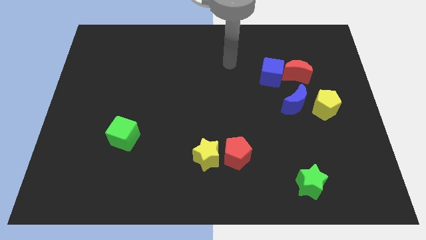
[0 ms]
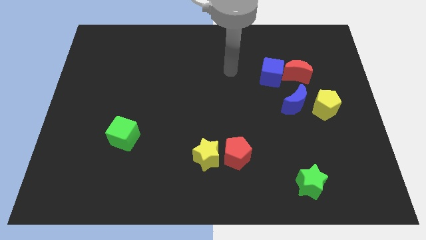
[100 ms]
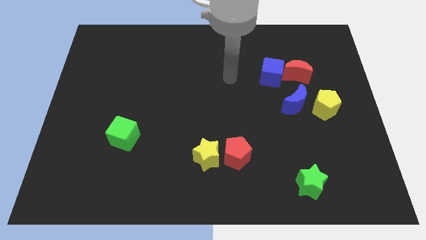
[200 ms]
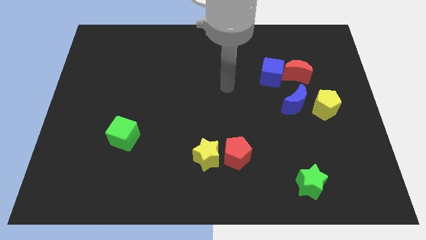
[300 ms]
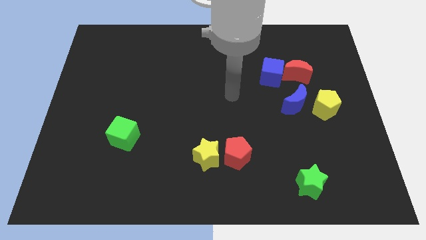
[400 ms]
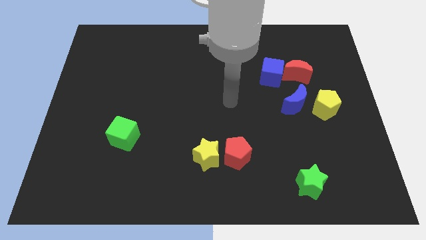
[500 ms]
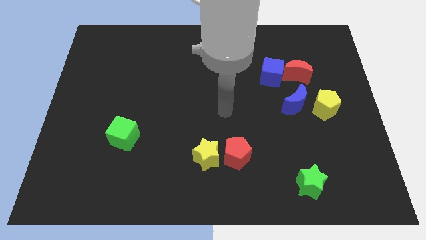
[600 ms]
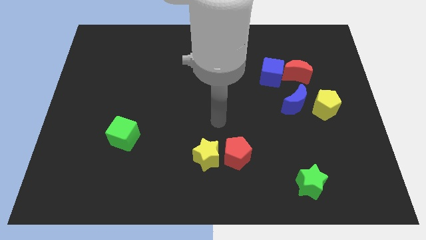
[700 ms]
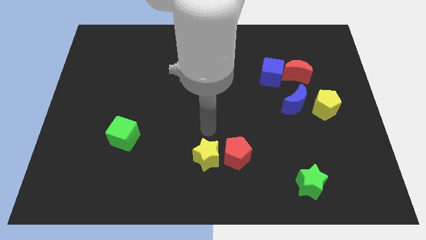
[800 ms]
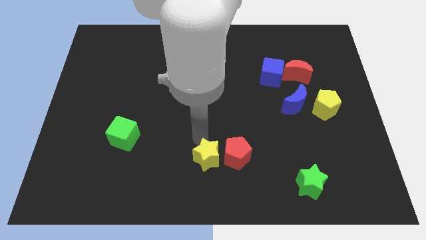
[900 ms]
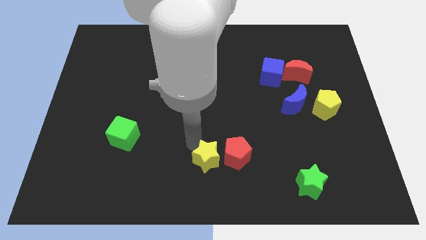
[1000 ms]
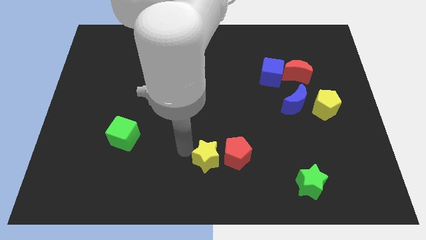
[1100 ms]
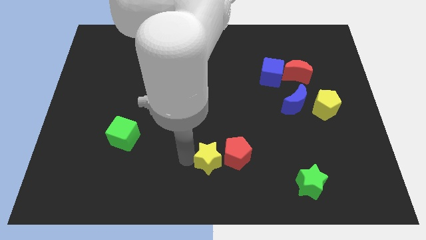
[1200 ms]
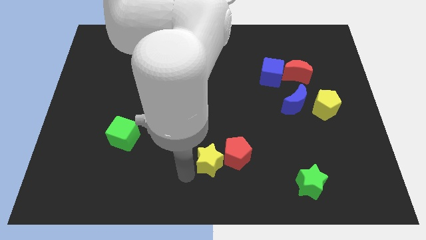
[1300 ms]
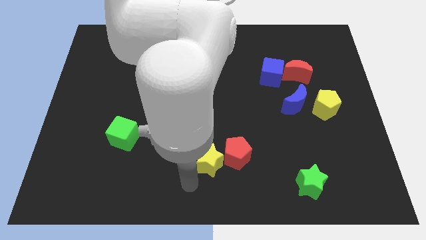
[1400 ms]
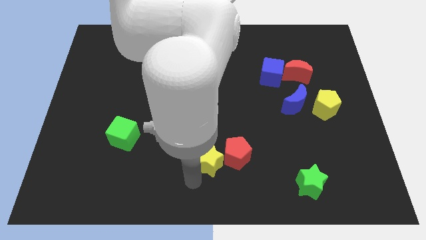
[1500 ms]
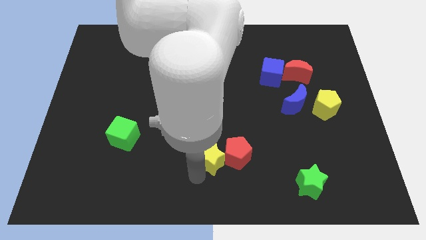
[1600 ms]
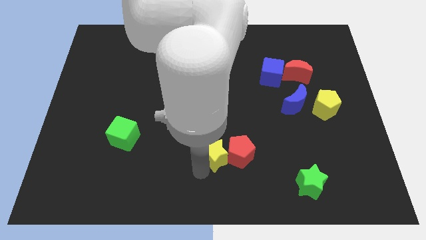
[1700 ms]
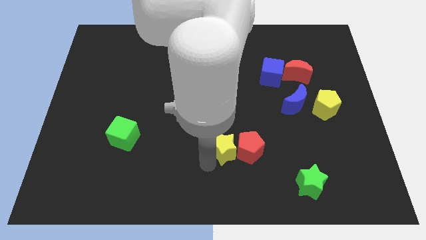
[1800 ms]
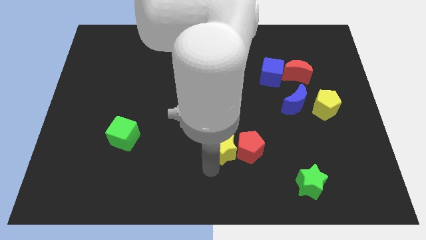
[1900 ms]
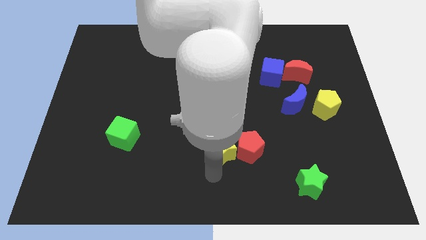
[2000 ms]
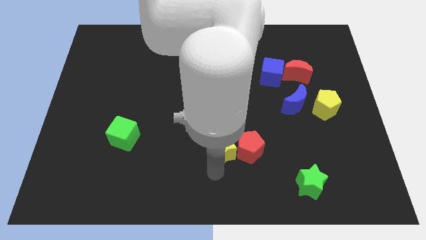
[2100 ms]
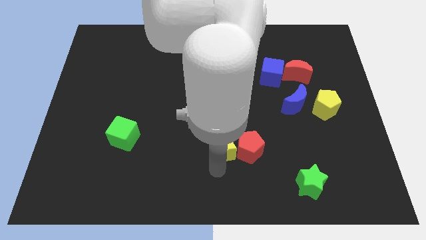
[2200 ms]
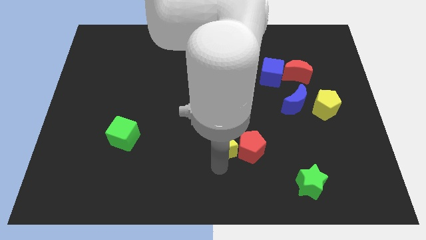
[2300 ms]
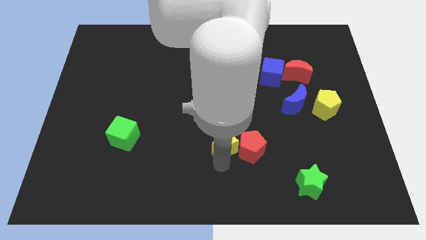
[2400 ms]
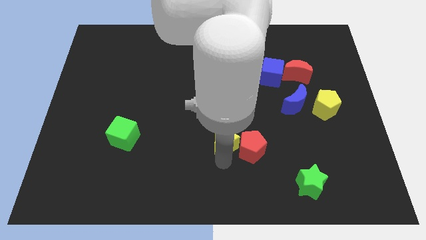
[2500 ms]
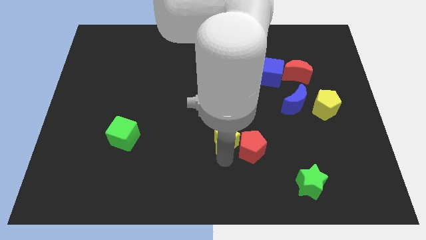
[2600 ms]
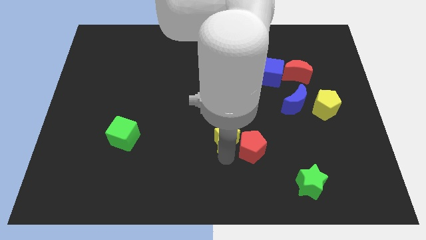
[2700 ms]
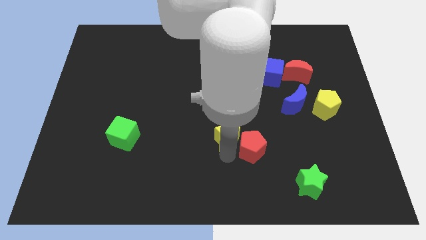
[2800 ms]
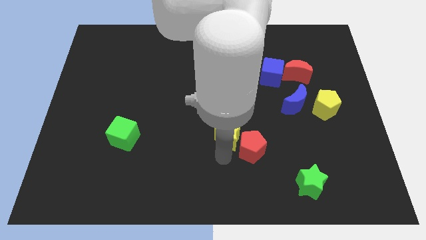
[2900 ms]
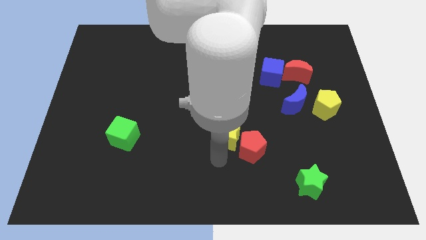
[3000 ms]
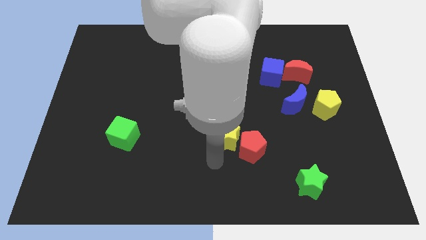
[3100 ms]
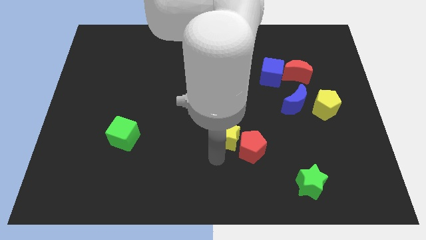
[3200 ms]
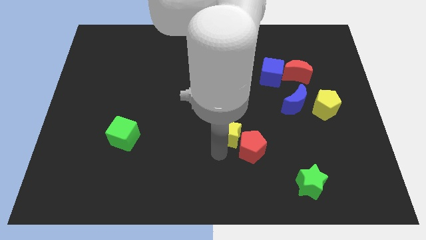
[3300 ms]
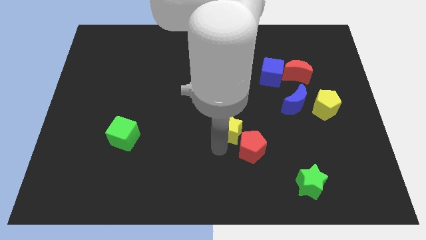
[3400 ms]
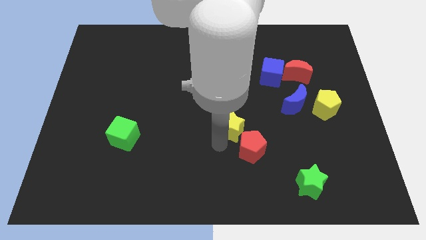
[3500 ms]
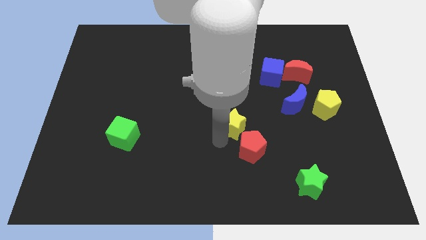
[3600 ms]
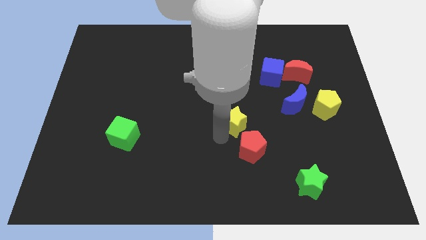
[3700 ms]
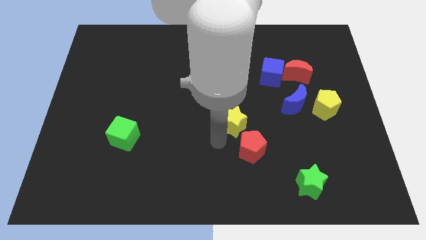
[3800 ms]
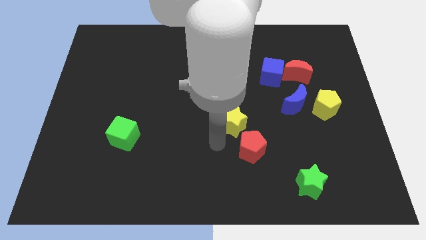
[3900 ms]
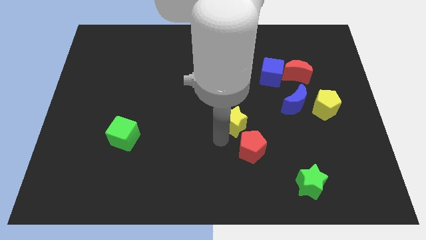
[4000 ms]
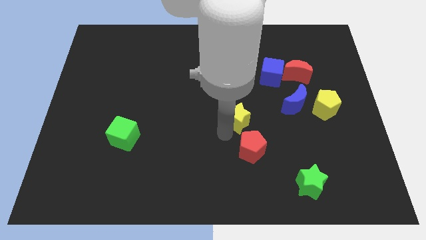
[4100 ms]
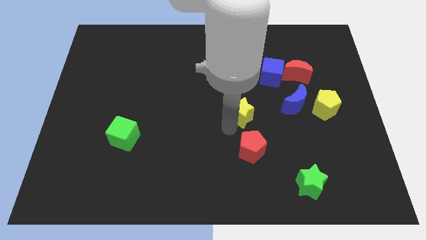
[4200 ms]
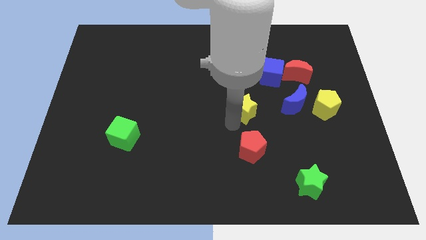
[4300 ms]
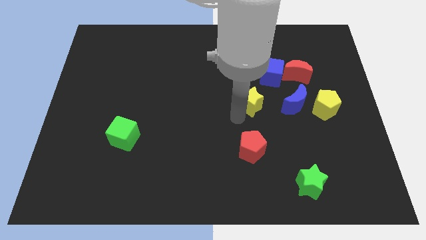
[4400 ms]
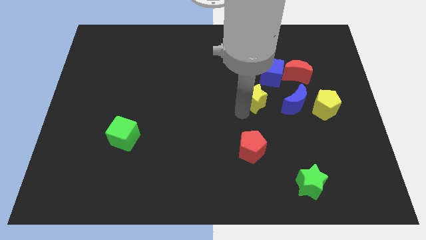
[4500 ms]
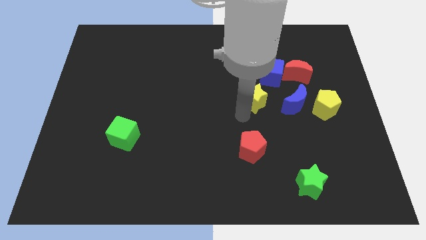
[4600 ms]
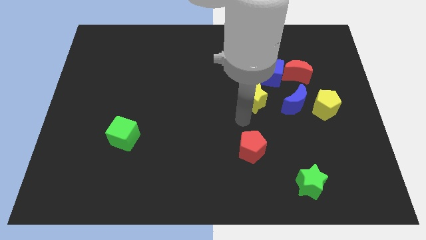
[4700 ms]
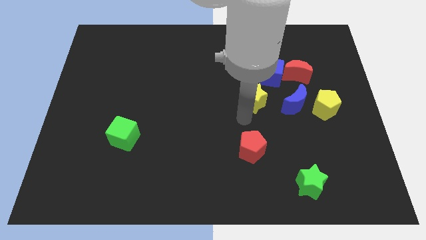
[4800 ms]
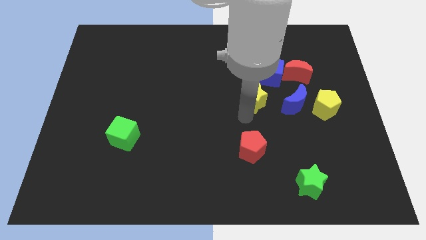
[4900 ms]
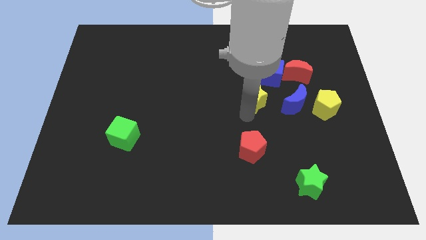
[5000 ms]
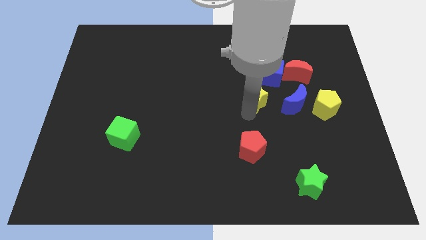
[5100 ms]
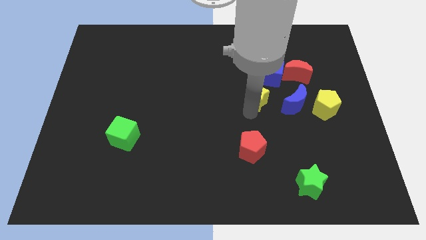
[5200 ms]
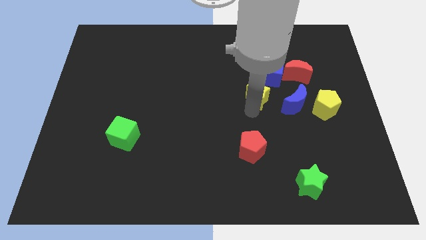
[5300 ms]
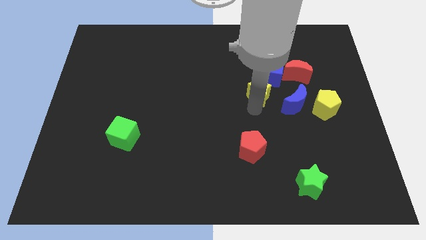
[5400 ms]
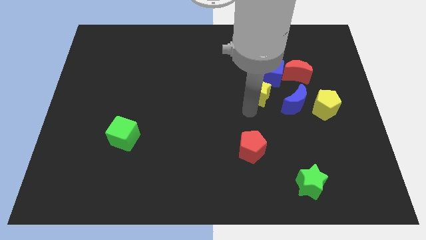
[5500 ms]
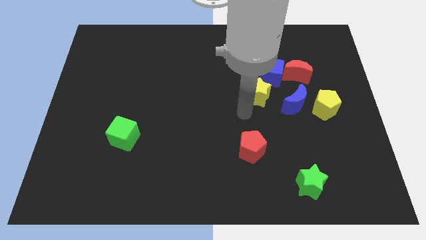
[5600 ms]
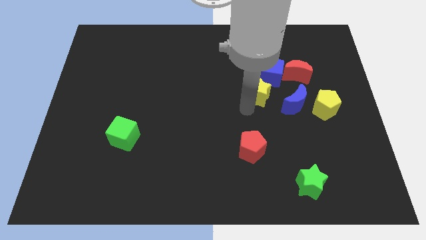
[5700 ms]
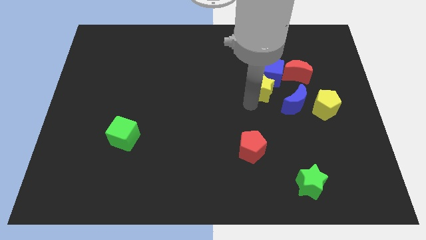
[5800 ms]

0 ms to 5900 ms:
move the yellow star next to the blue cube

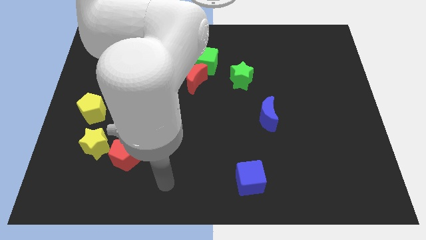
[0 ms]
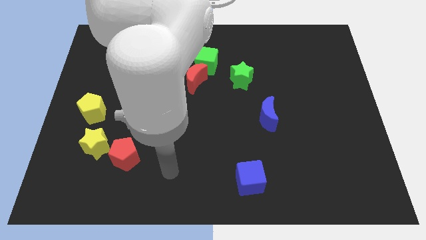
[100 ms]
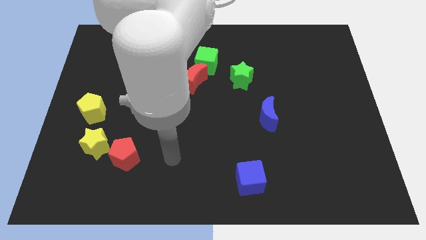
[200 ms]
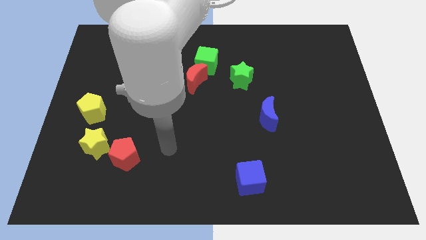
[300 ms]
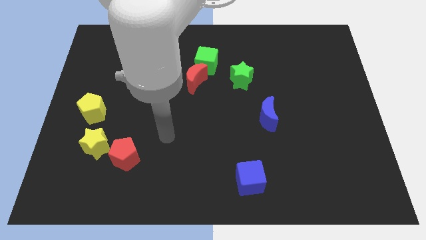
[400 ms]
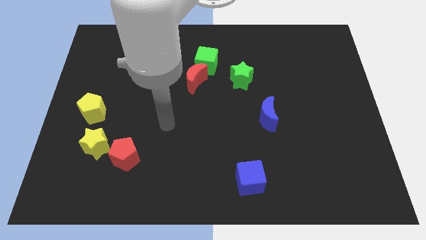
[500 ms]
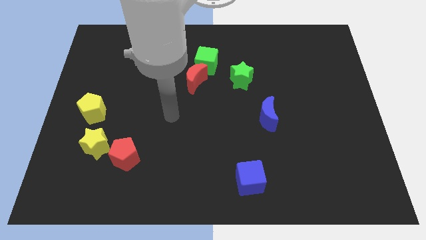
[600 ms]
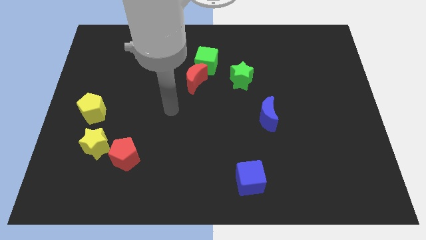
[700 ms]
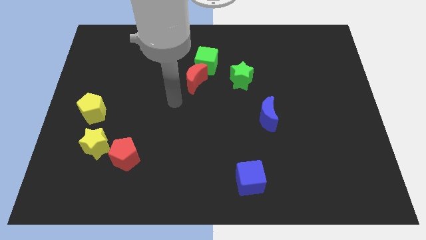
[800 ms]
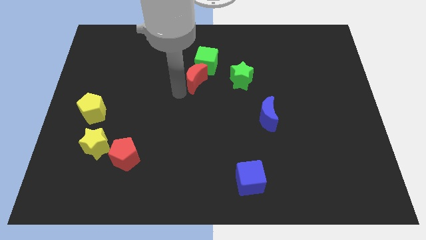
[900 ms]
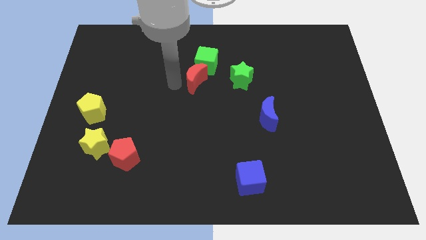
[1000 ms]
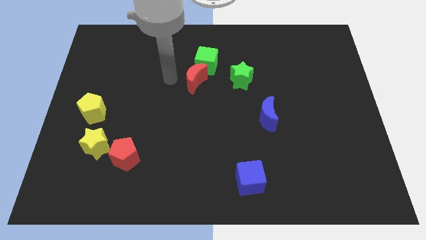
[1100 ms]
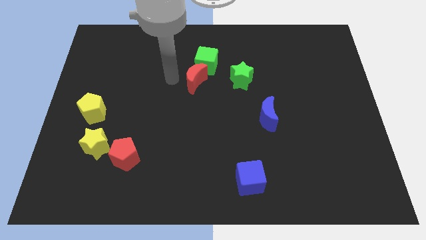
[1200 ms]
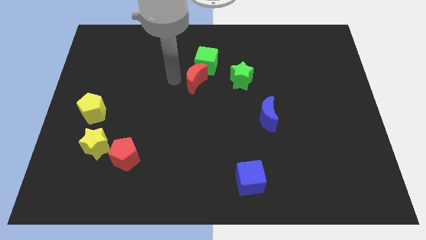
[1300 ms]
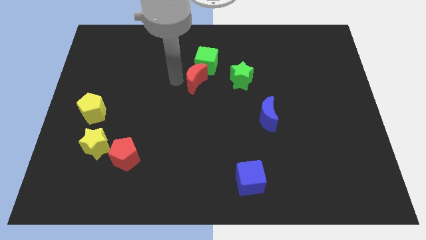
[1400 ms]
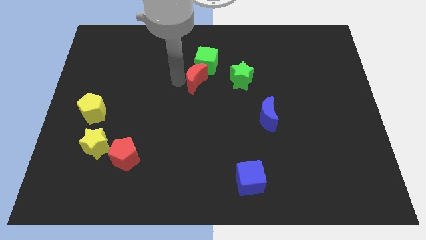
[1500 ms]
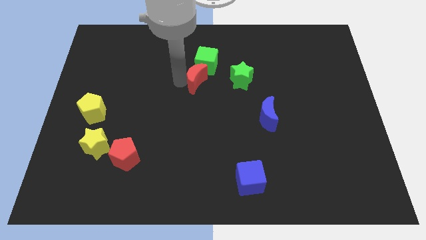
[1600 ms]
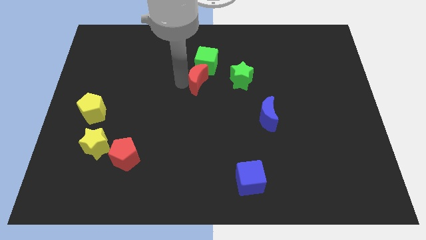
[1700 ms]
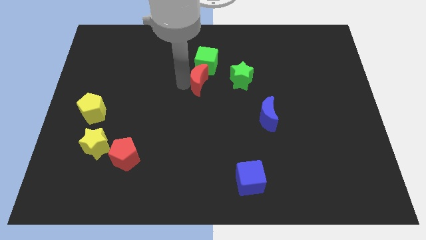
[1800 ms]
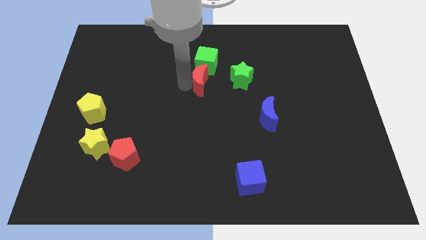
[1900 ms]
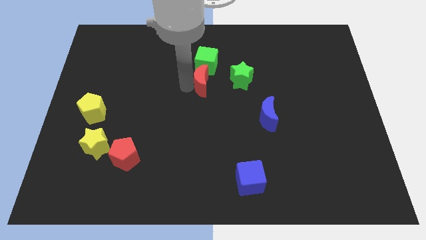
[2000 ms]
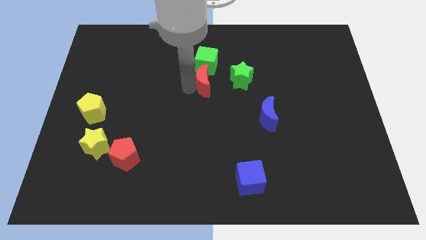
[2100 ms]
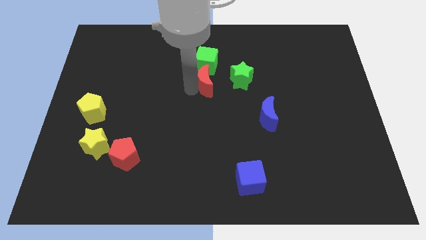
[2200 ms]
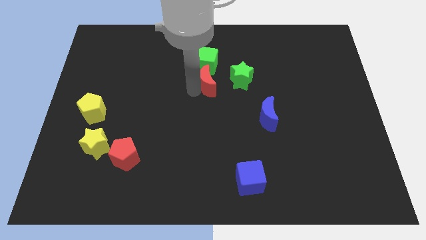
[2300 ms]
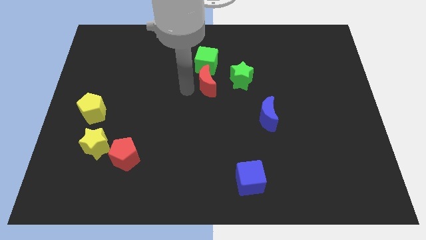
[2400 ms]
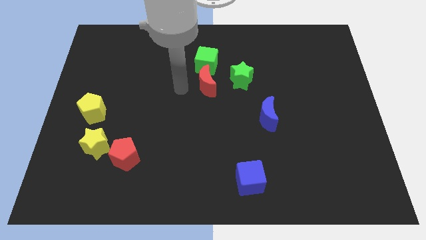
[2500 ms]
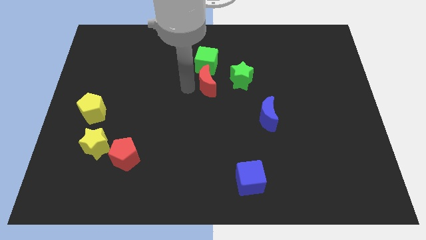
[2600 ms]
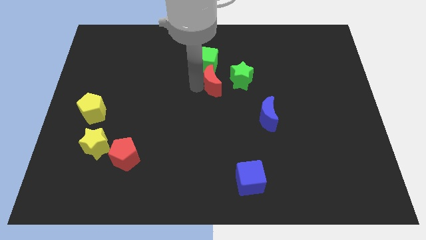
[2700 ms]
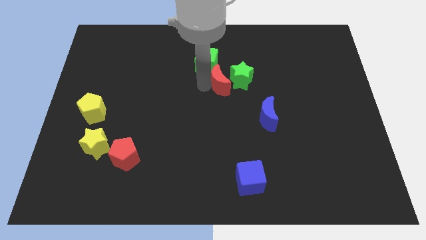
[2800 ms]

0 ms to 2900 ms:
move the red moon next to the green star
